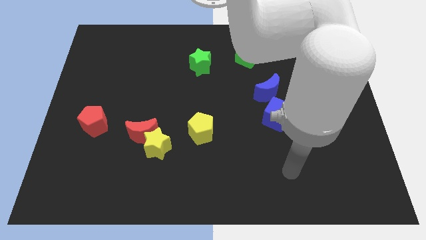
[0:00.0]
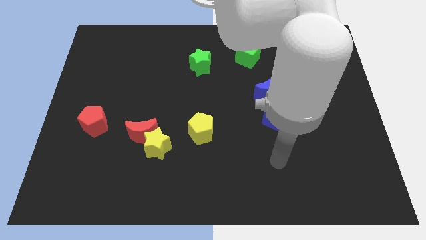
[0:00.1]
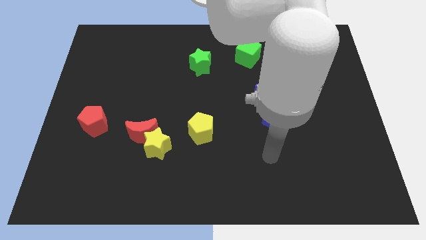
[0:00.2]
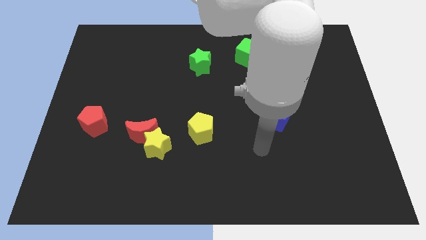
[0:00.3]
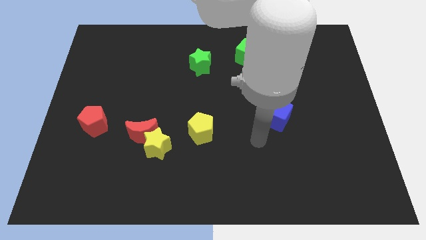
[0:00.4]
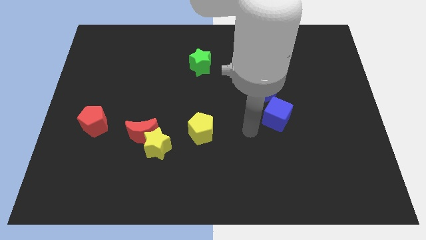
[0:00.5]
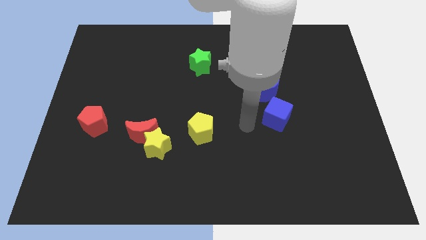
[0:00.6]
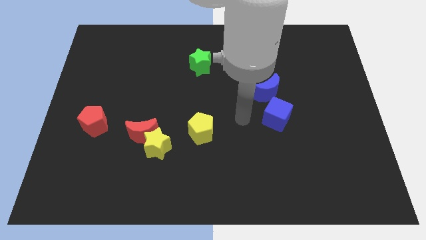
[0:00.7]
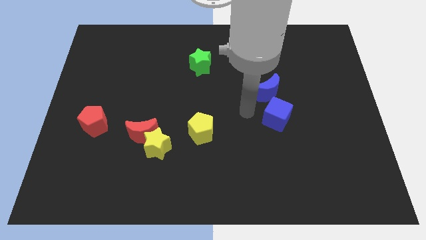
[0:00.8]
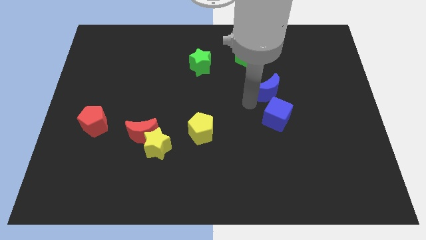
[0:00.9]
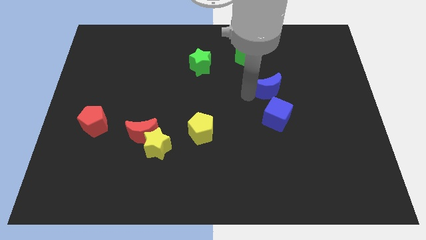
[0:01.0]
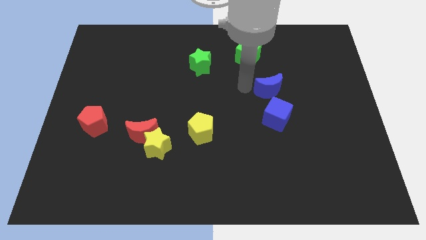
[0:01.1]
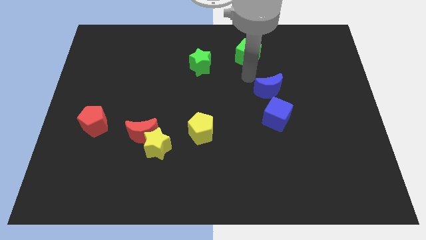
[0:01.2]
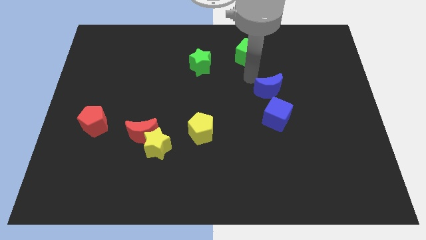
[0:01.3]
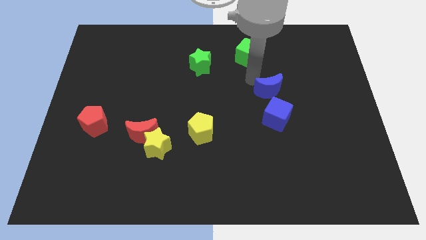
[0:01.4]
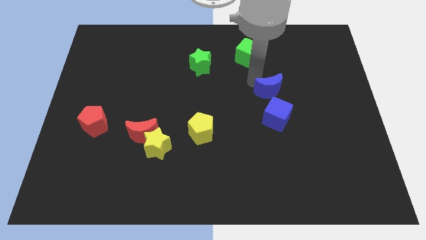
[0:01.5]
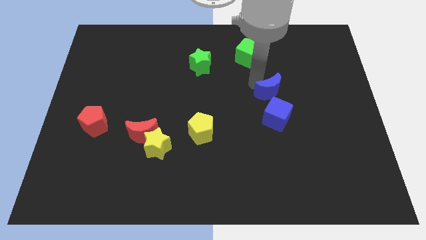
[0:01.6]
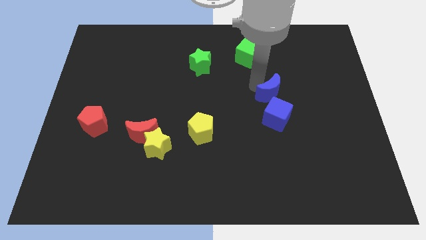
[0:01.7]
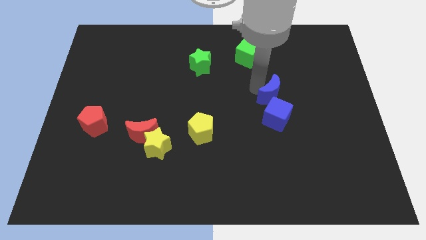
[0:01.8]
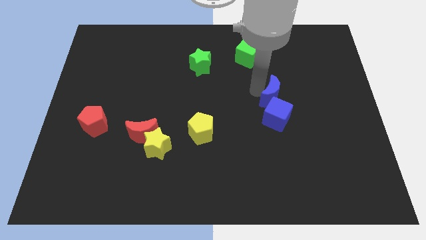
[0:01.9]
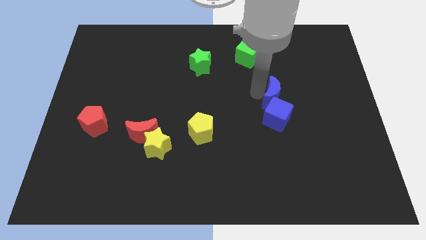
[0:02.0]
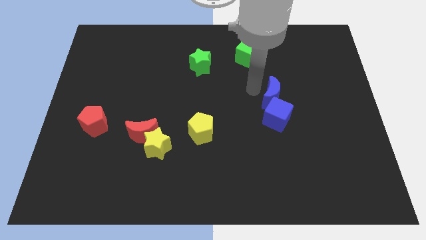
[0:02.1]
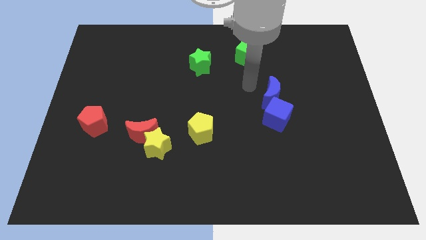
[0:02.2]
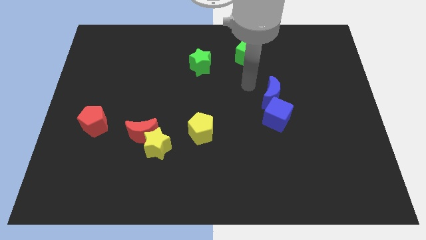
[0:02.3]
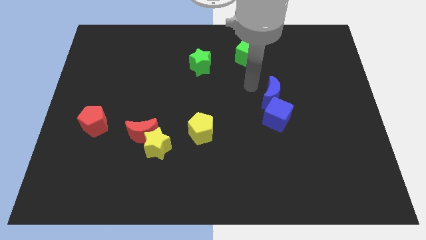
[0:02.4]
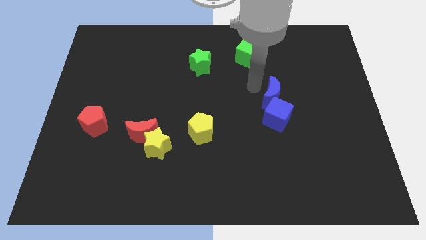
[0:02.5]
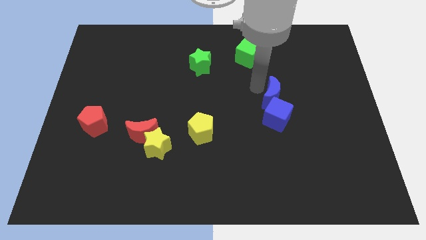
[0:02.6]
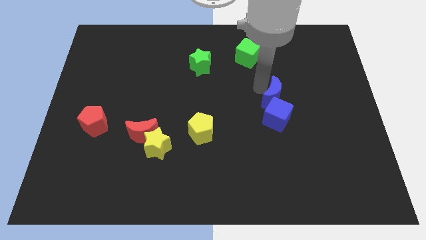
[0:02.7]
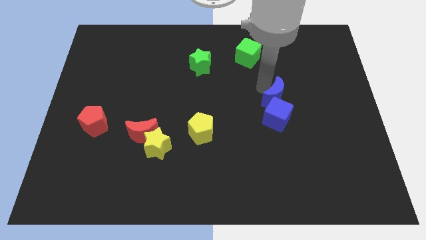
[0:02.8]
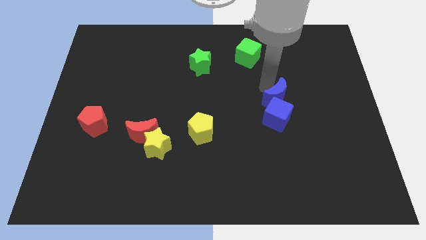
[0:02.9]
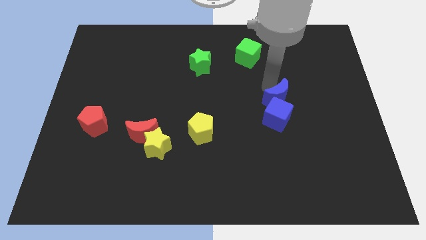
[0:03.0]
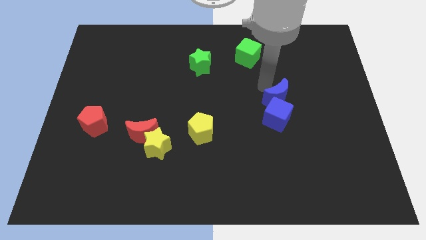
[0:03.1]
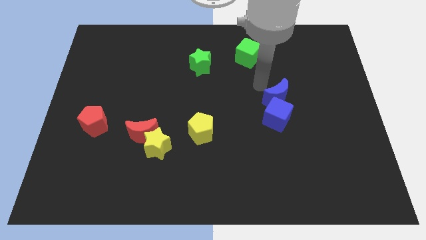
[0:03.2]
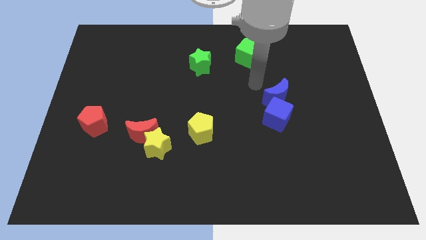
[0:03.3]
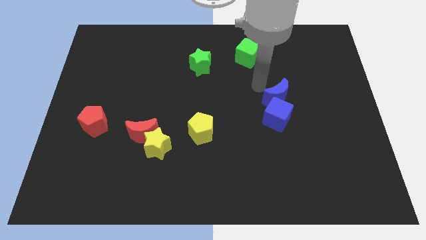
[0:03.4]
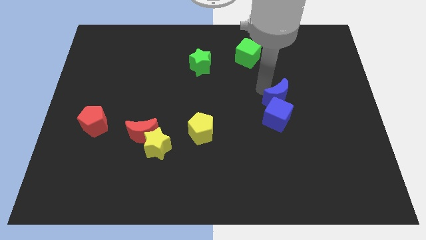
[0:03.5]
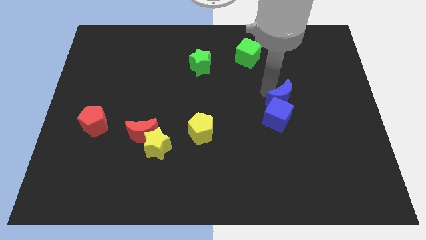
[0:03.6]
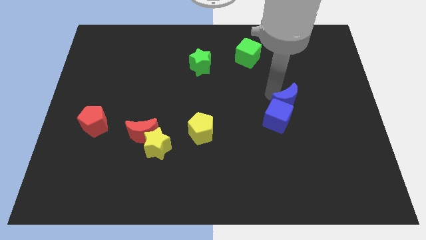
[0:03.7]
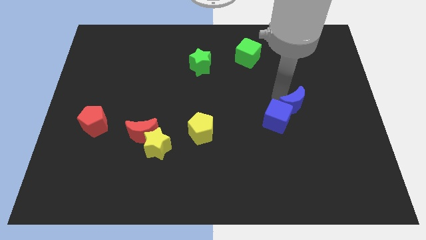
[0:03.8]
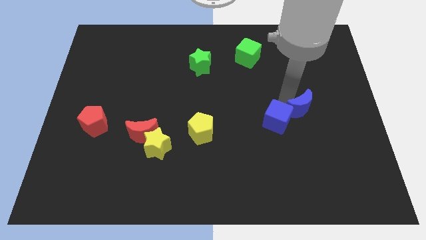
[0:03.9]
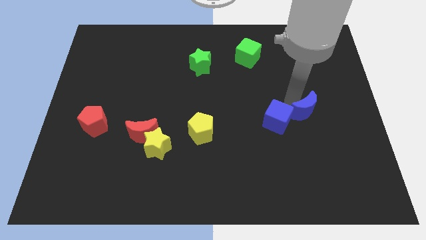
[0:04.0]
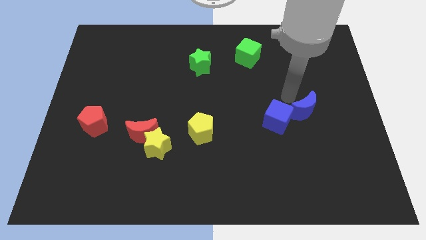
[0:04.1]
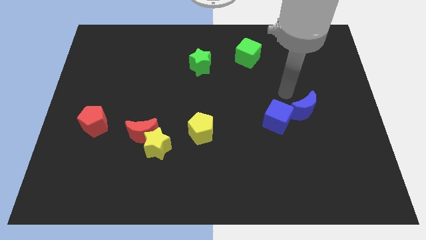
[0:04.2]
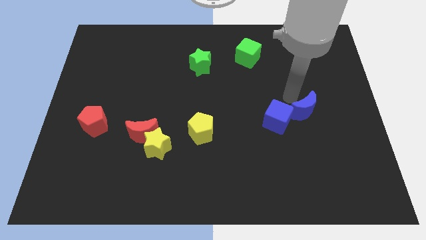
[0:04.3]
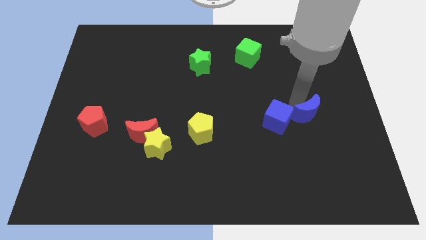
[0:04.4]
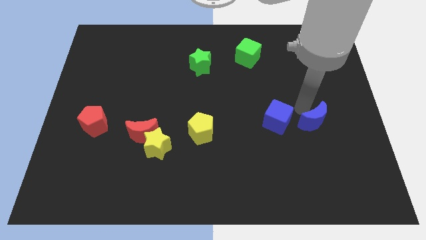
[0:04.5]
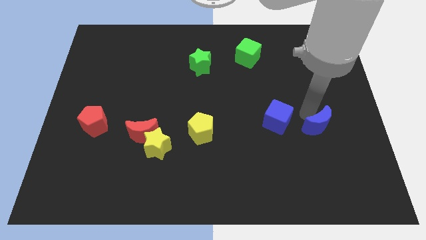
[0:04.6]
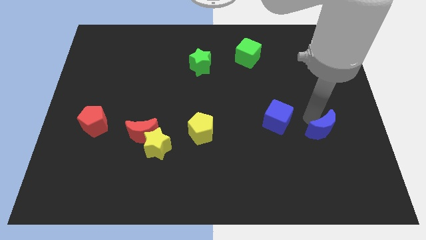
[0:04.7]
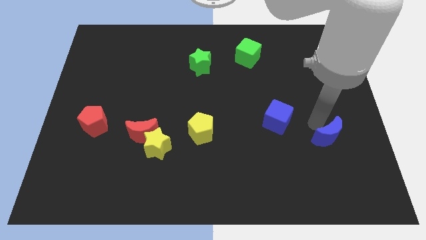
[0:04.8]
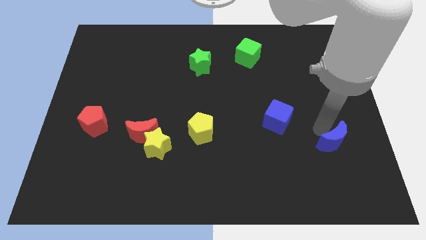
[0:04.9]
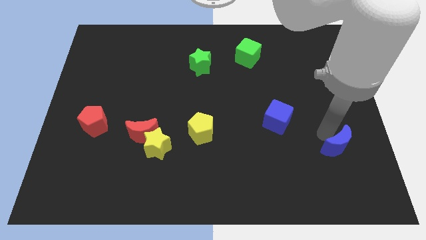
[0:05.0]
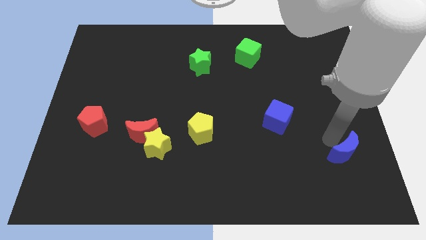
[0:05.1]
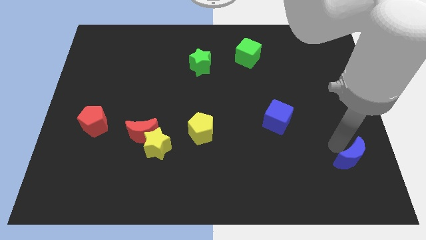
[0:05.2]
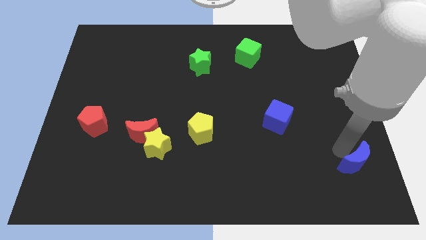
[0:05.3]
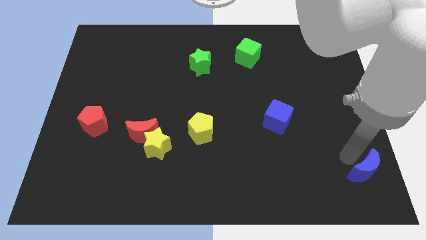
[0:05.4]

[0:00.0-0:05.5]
put the blue moon to the lower right corner

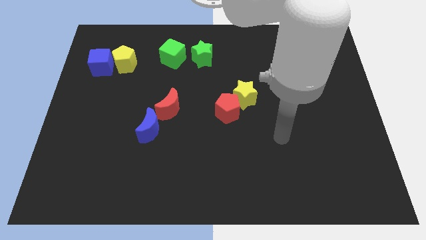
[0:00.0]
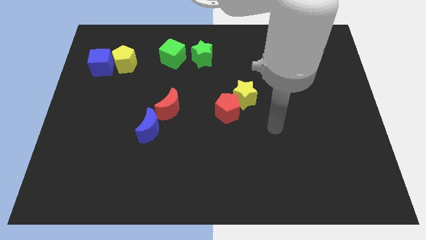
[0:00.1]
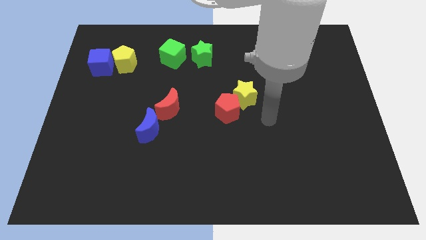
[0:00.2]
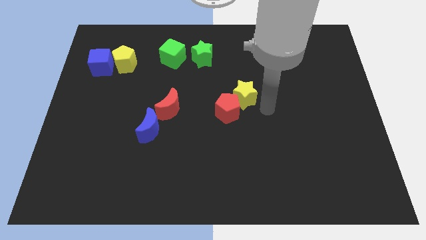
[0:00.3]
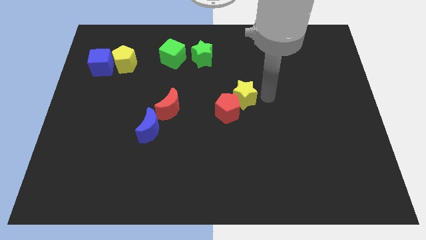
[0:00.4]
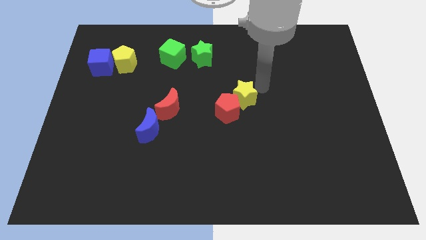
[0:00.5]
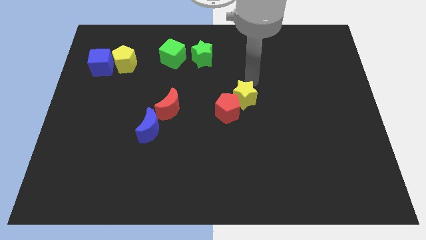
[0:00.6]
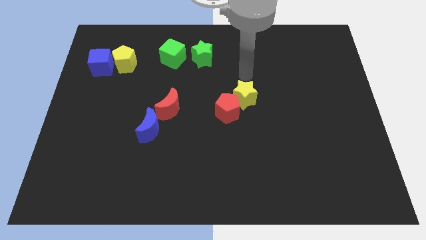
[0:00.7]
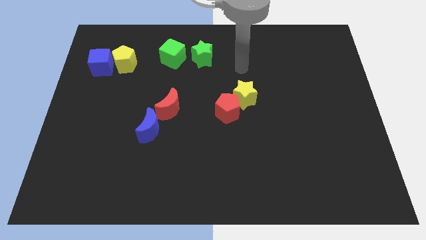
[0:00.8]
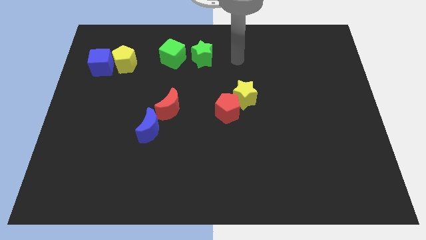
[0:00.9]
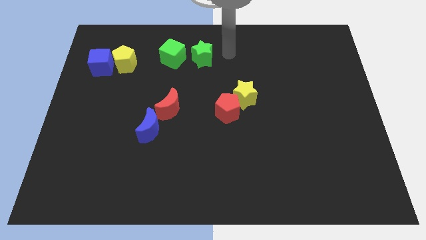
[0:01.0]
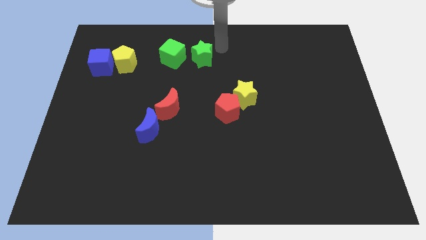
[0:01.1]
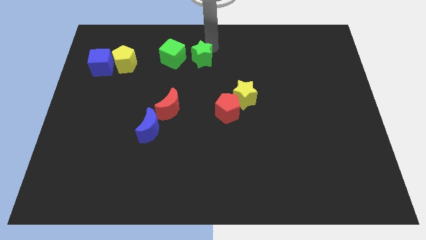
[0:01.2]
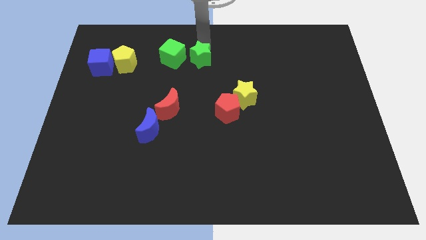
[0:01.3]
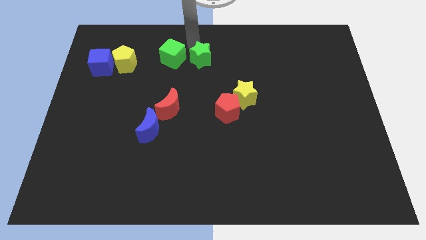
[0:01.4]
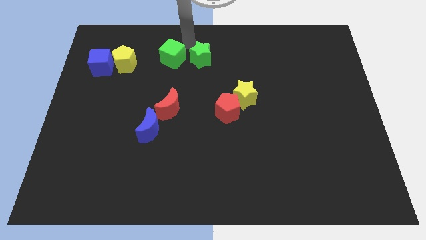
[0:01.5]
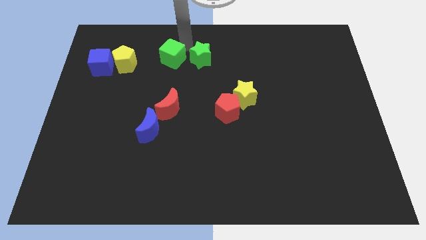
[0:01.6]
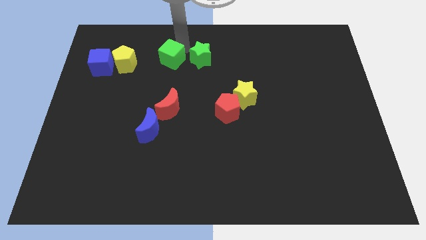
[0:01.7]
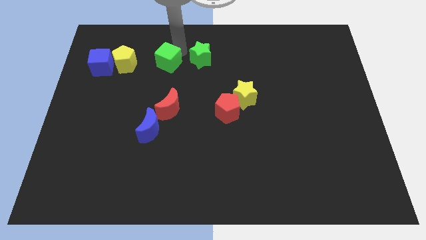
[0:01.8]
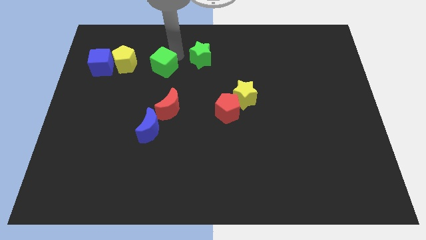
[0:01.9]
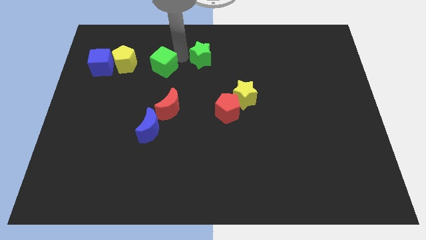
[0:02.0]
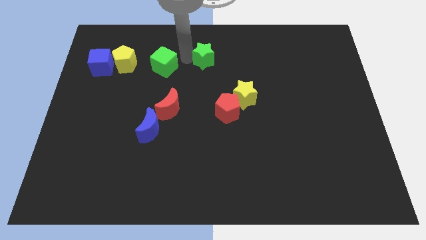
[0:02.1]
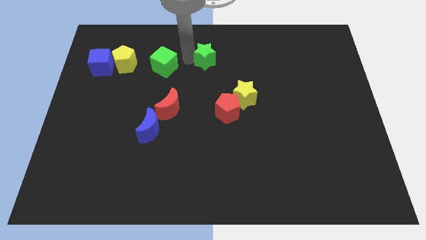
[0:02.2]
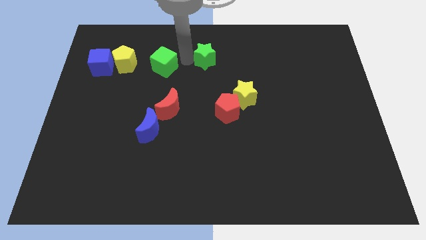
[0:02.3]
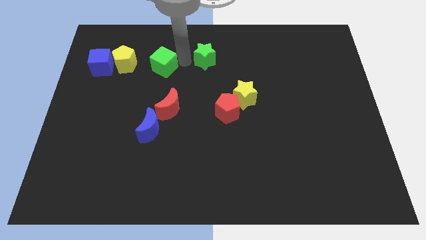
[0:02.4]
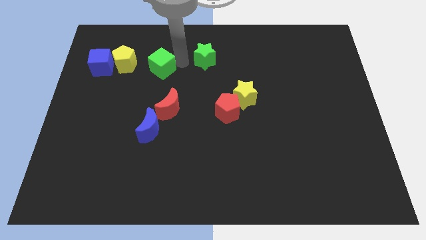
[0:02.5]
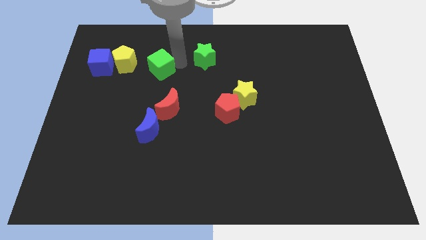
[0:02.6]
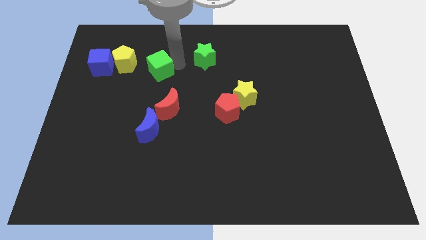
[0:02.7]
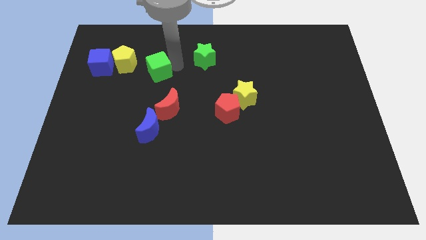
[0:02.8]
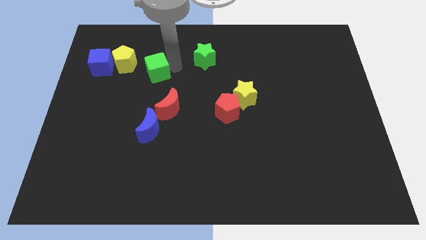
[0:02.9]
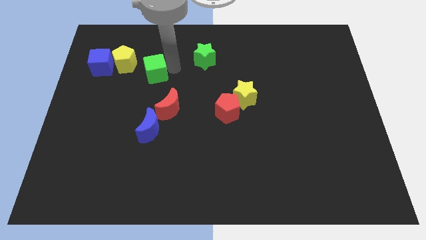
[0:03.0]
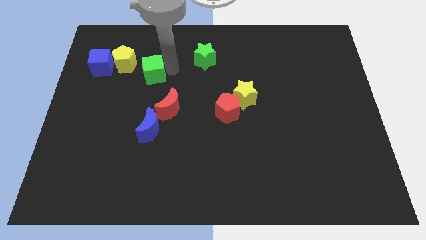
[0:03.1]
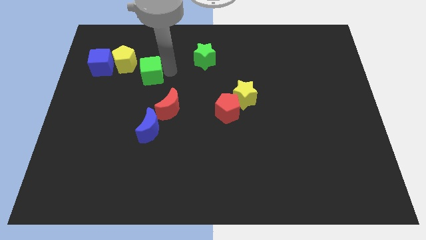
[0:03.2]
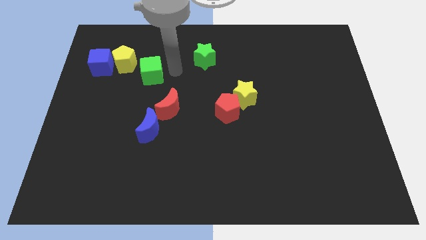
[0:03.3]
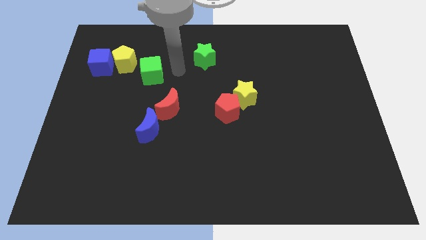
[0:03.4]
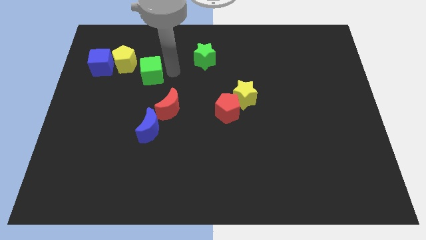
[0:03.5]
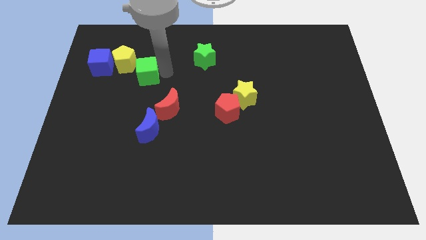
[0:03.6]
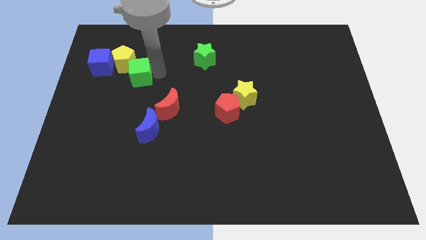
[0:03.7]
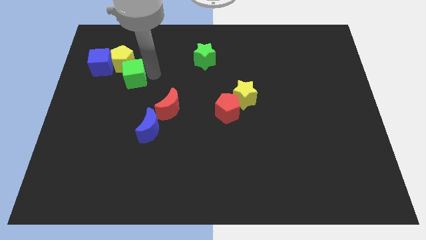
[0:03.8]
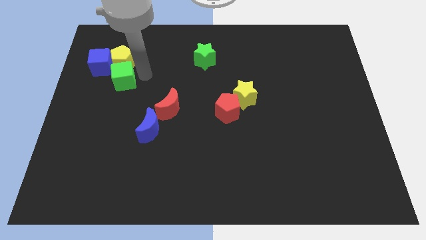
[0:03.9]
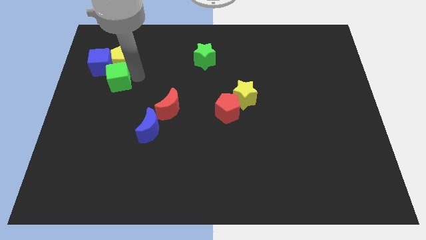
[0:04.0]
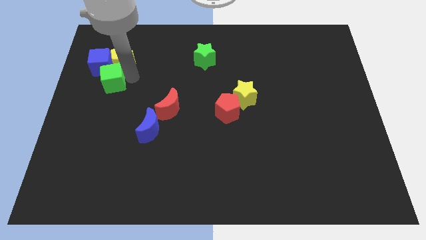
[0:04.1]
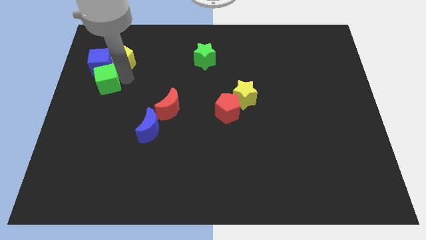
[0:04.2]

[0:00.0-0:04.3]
slide the green cube to the left side
